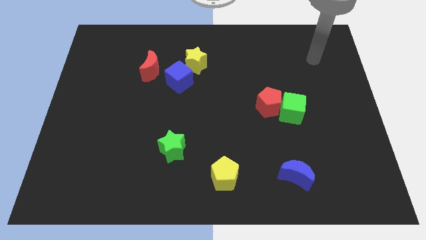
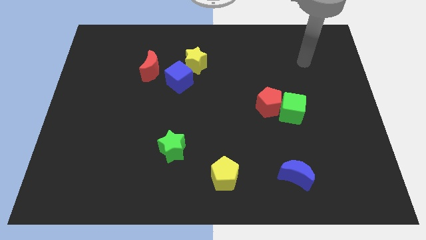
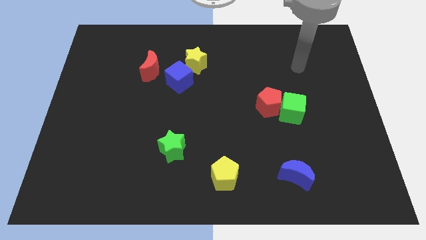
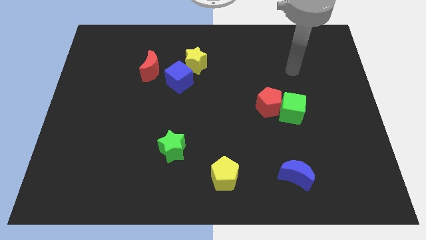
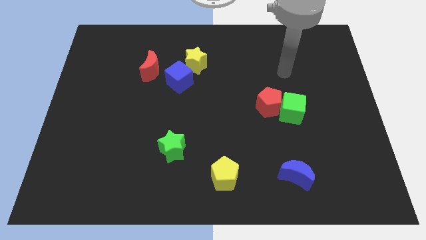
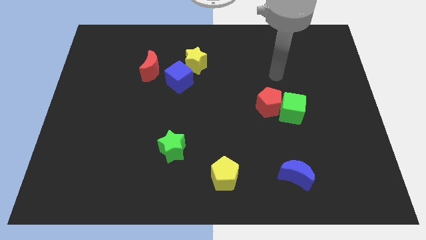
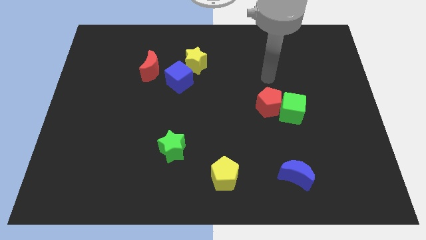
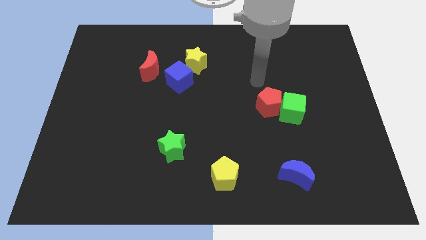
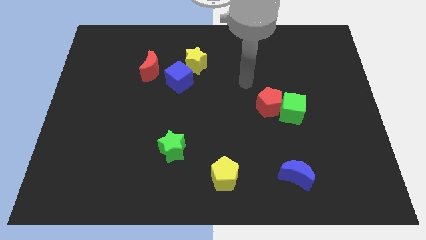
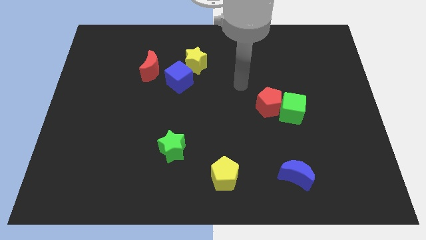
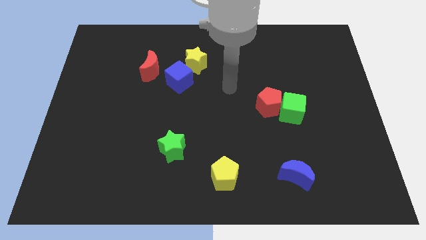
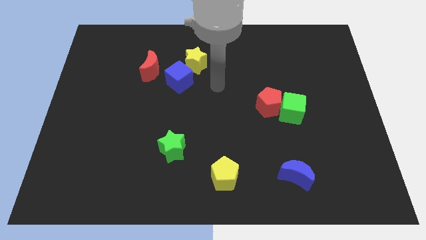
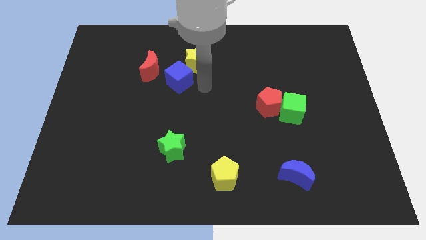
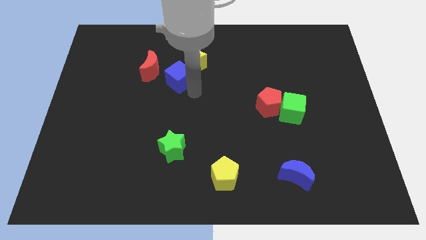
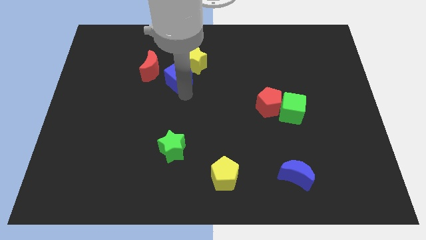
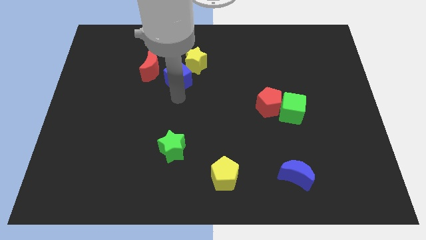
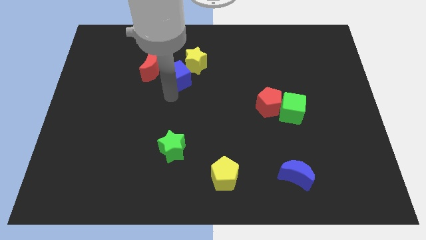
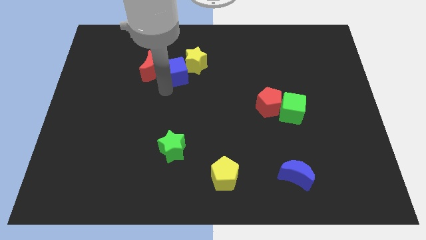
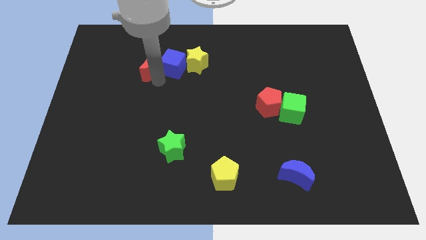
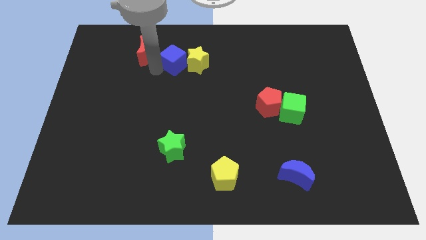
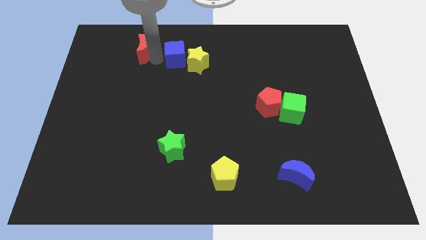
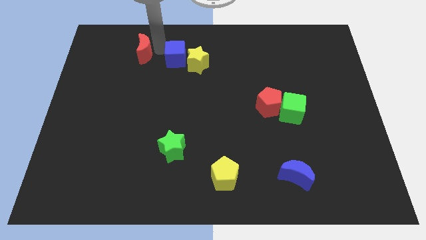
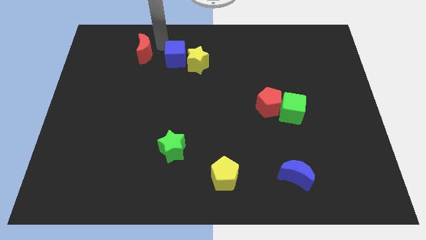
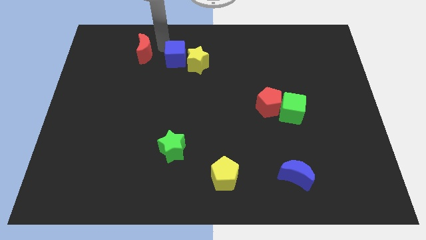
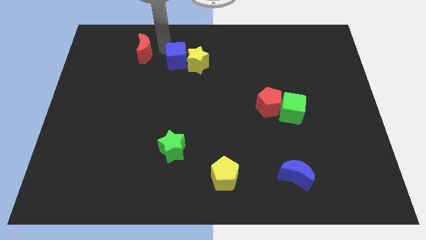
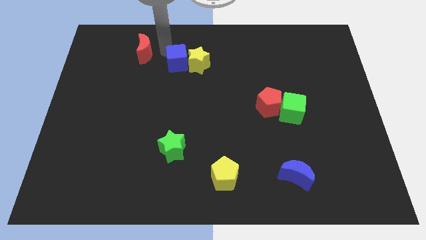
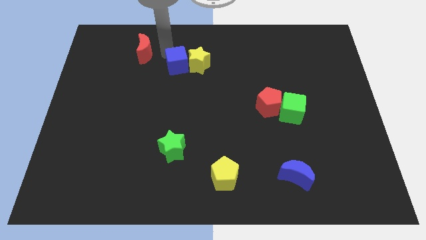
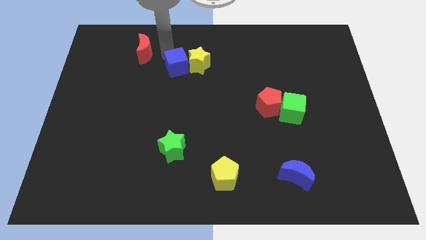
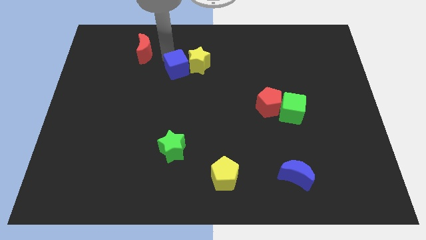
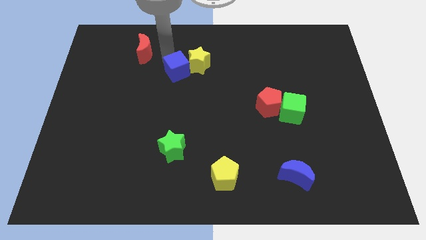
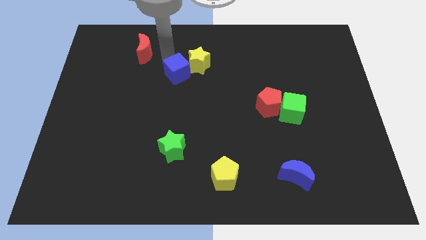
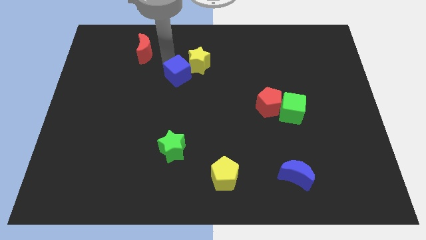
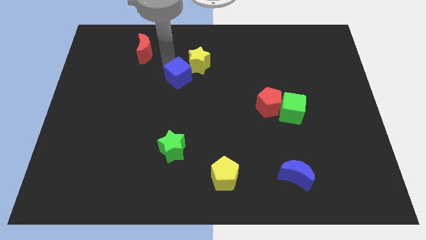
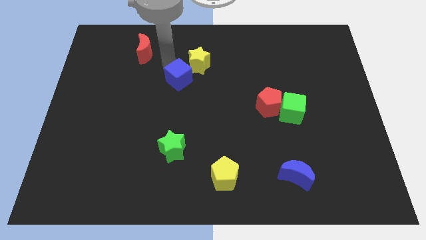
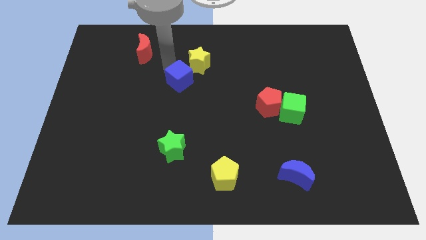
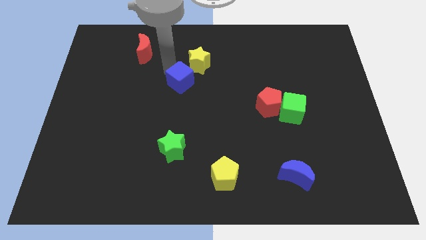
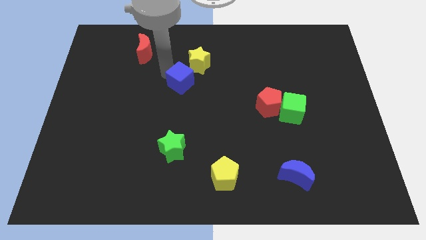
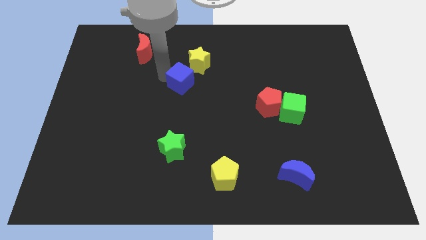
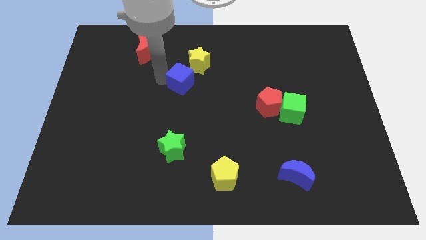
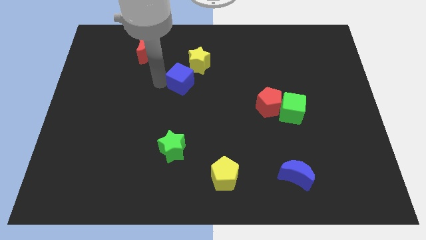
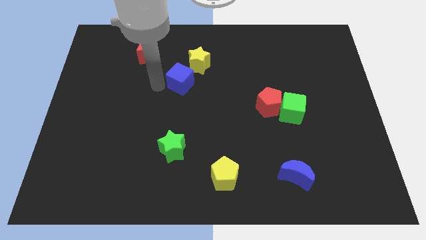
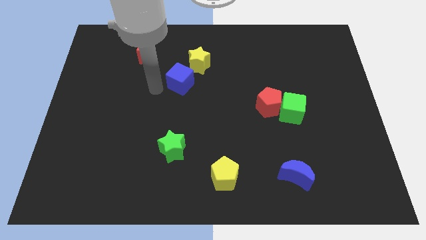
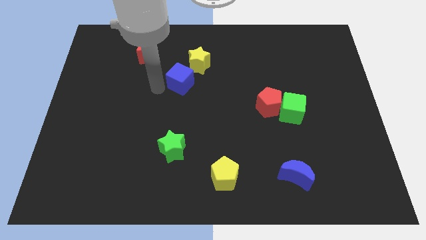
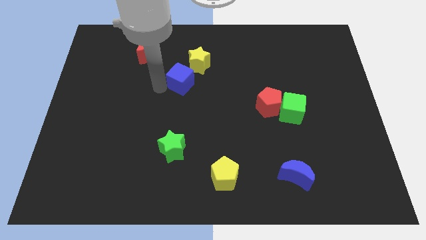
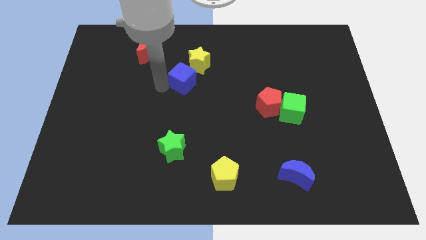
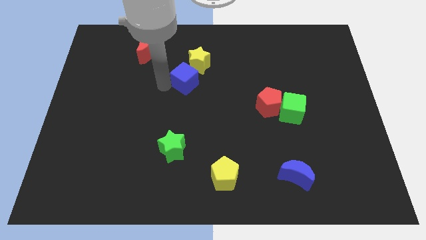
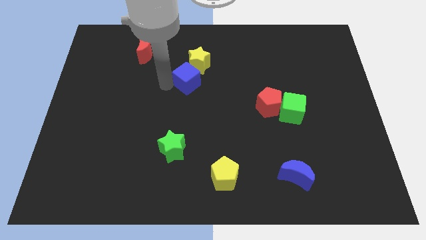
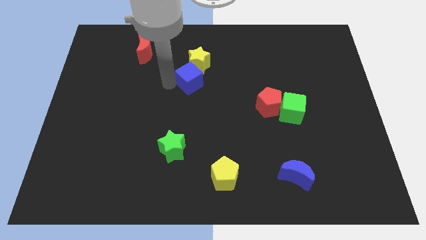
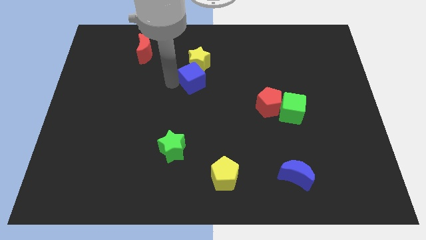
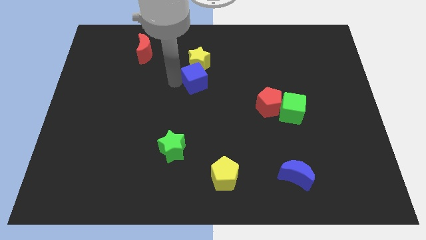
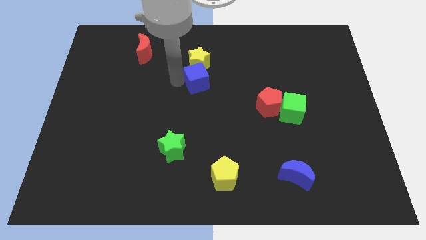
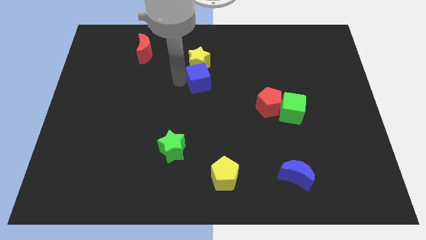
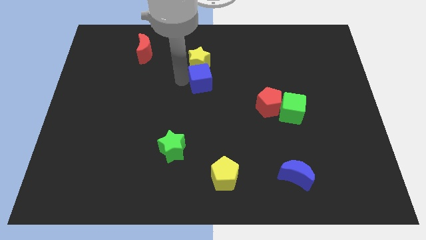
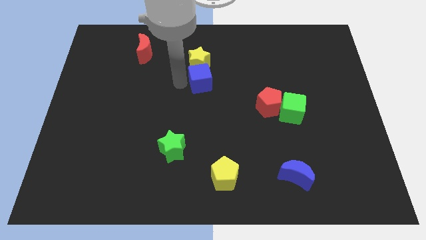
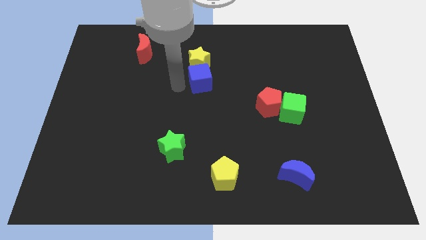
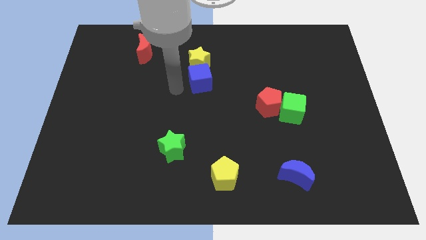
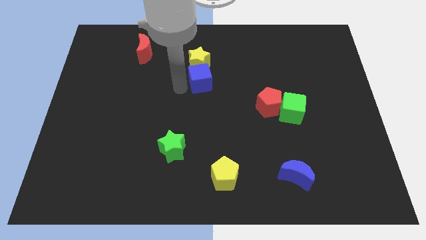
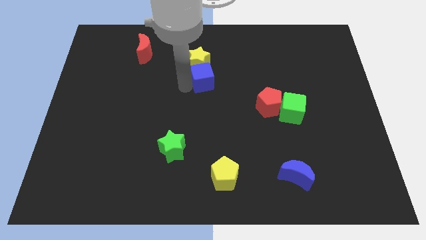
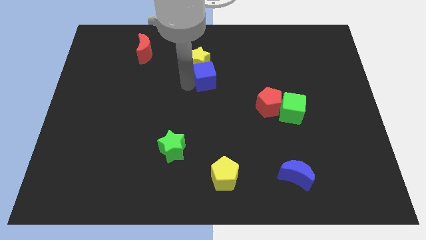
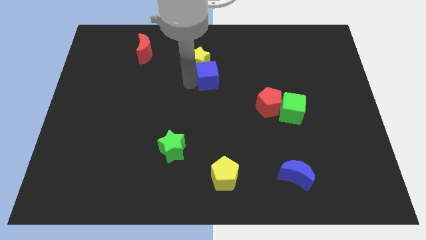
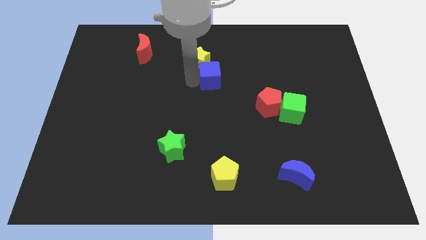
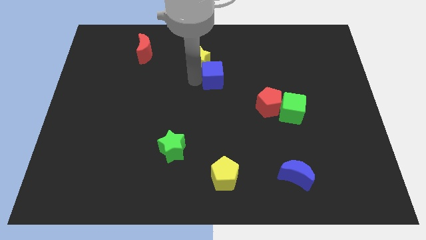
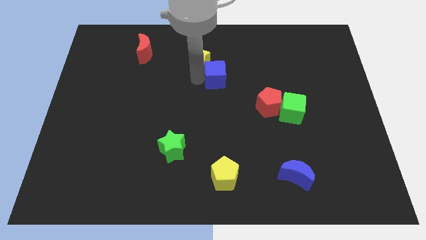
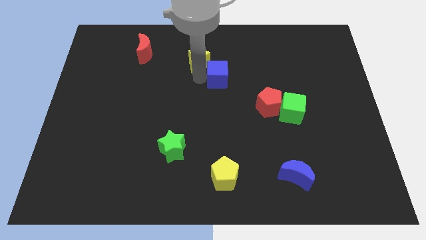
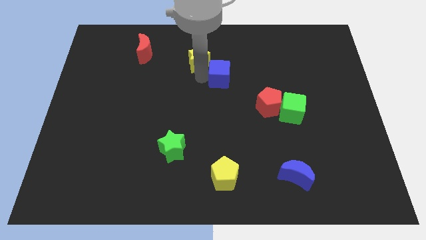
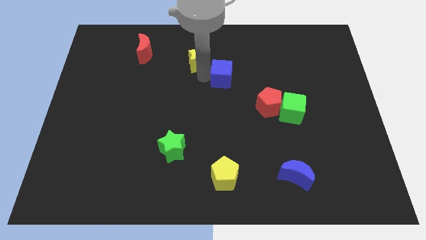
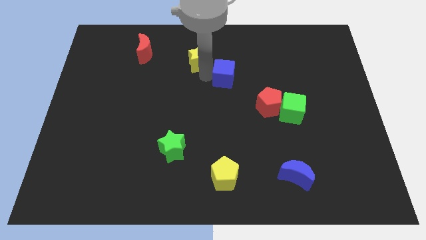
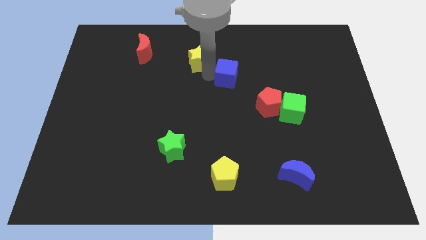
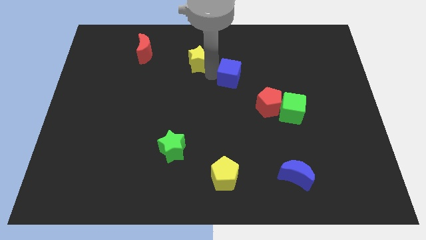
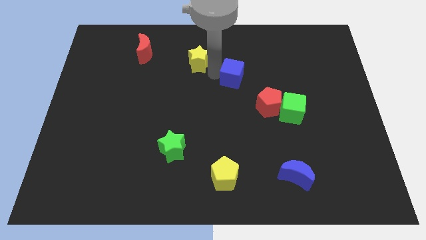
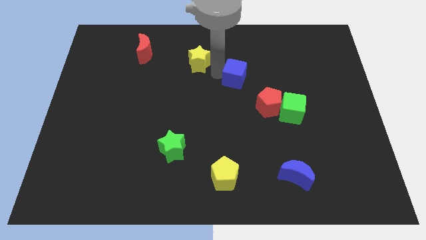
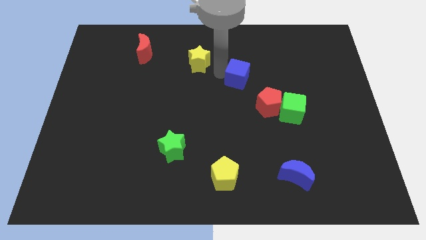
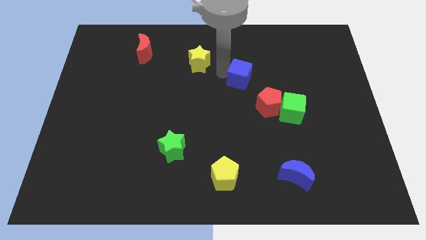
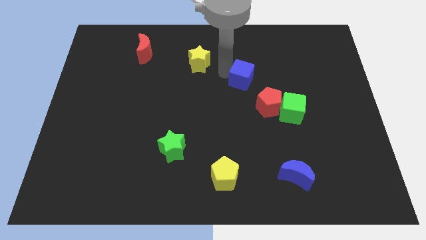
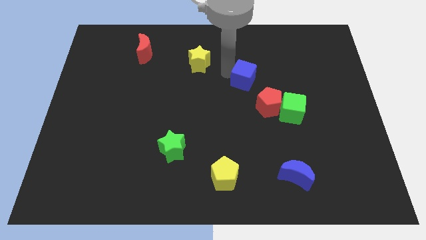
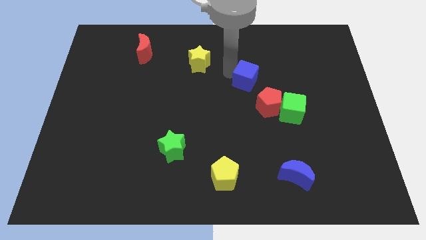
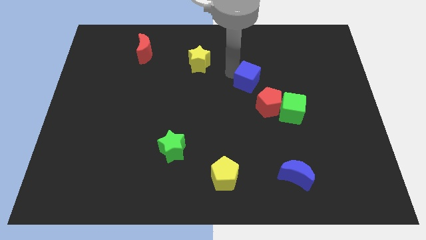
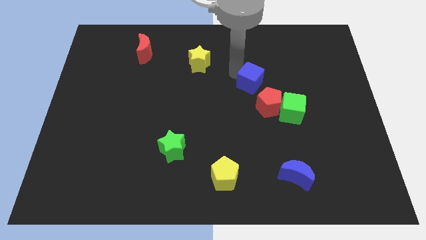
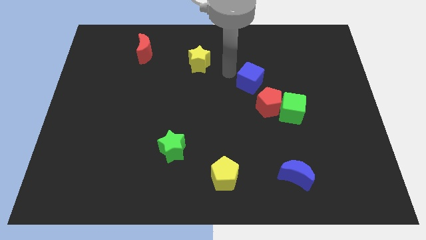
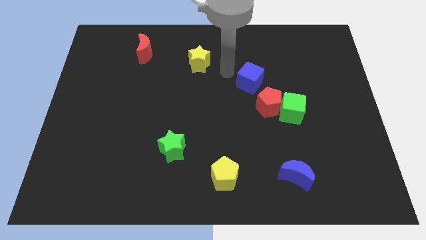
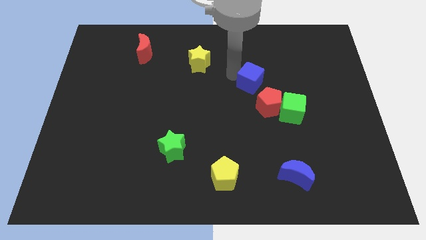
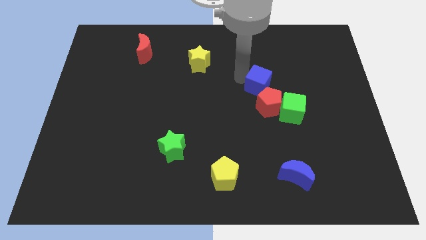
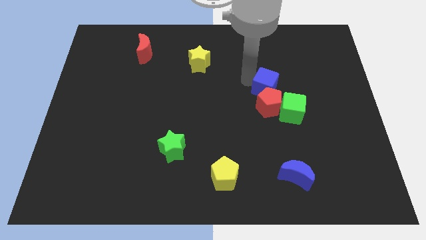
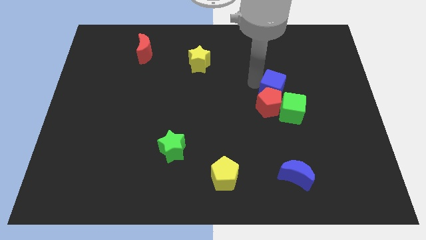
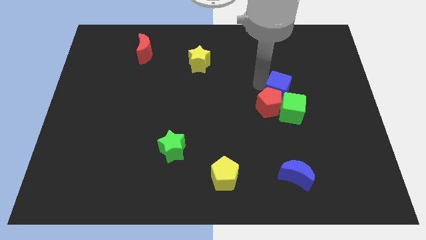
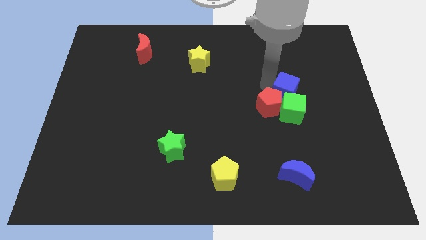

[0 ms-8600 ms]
move the blue cube next to the green cube
